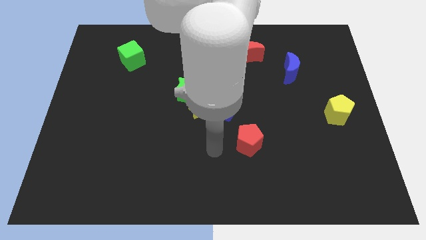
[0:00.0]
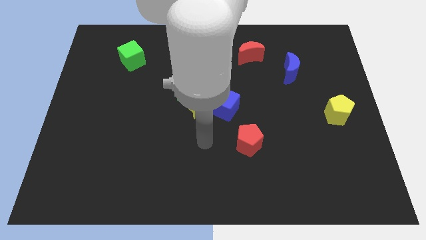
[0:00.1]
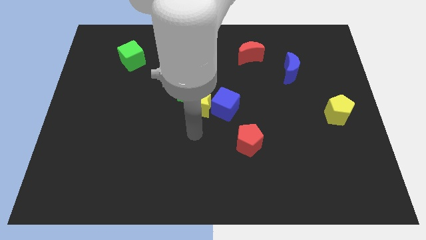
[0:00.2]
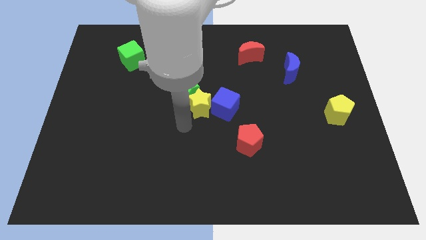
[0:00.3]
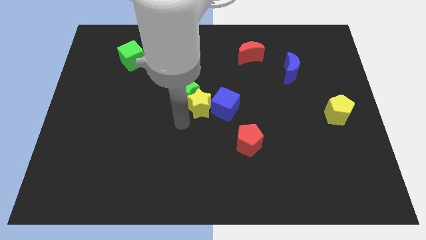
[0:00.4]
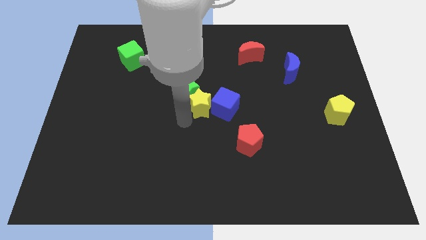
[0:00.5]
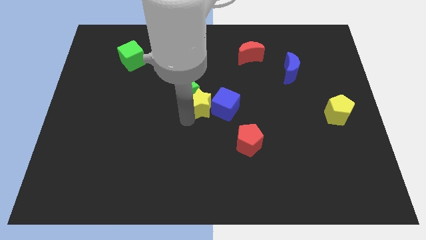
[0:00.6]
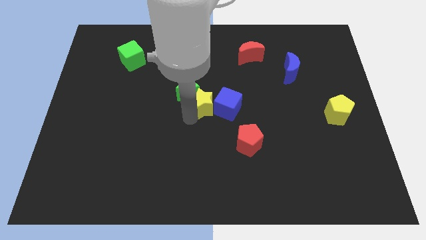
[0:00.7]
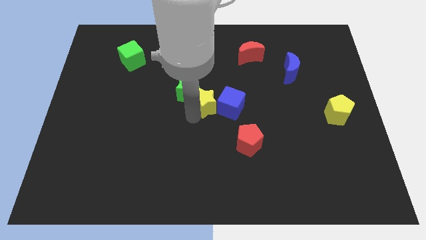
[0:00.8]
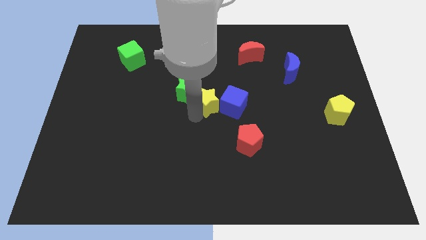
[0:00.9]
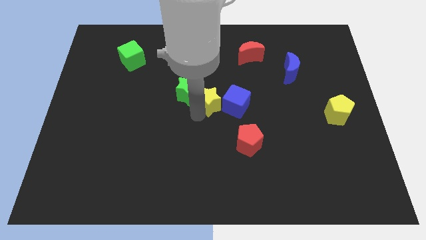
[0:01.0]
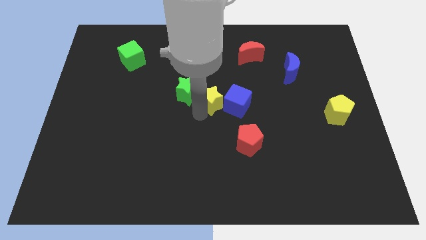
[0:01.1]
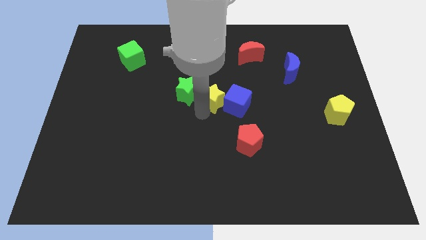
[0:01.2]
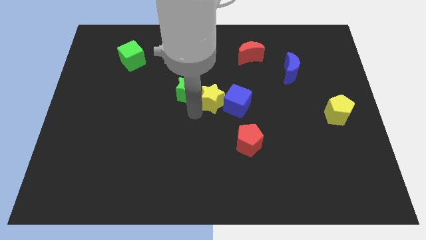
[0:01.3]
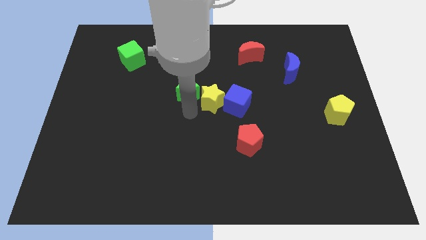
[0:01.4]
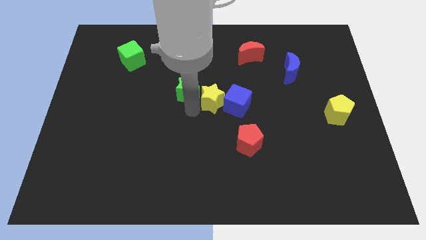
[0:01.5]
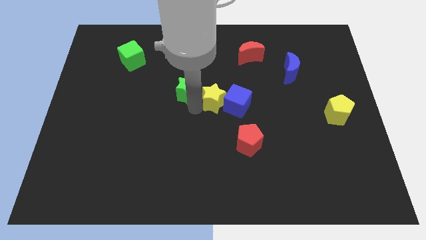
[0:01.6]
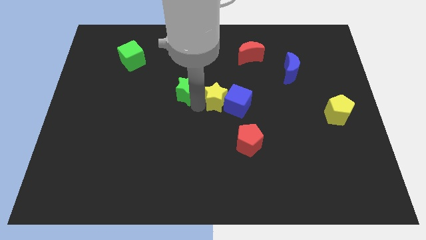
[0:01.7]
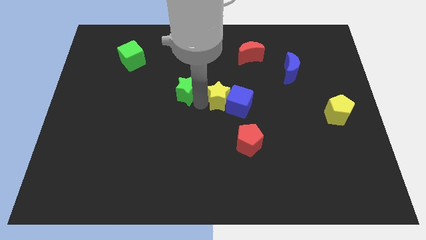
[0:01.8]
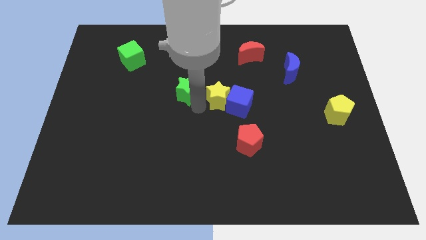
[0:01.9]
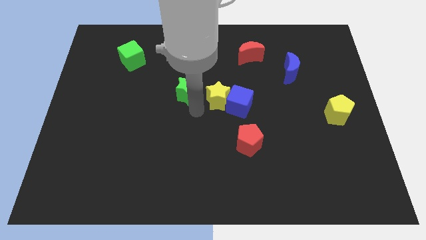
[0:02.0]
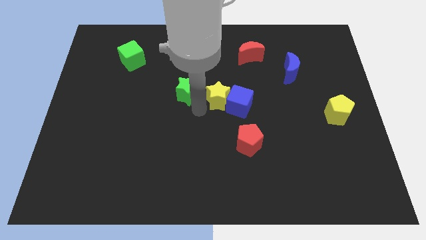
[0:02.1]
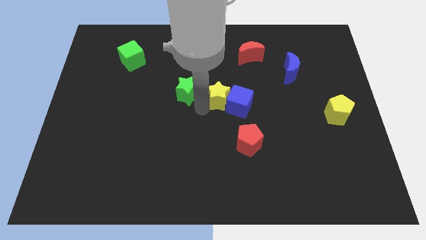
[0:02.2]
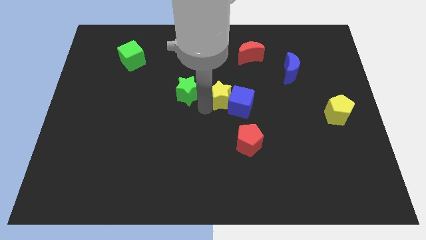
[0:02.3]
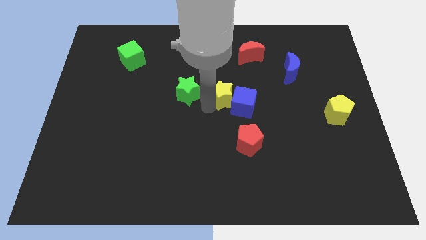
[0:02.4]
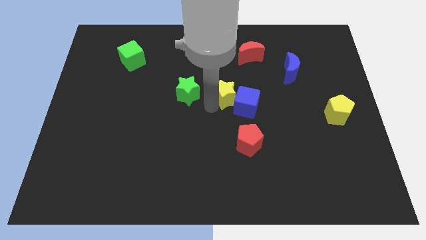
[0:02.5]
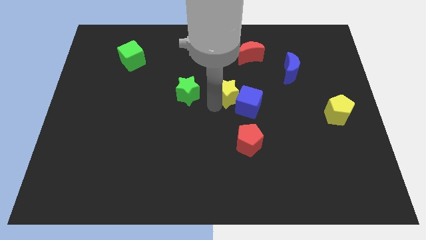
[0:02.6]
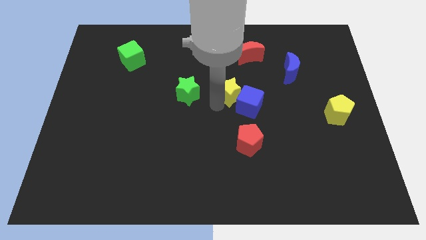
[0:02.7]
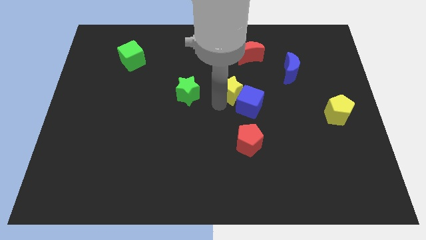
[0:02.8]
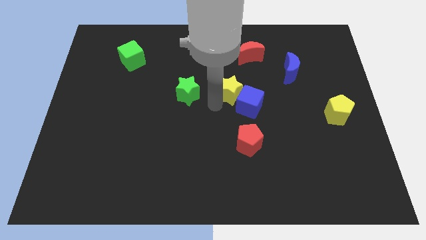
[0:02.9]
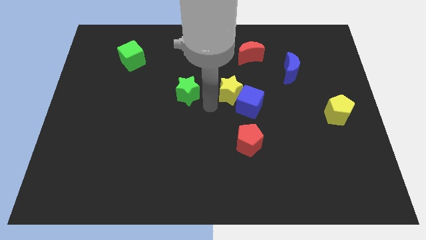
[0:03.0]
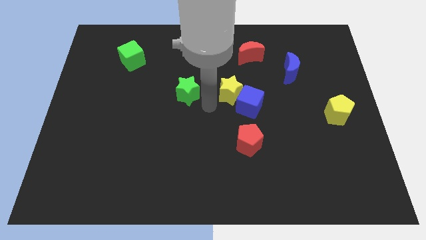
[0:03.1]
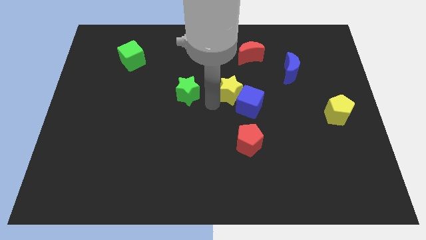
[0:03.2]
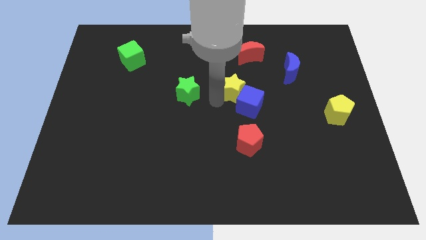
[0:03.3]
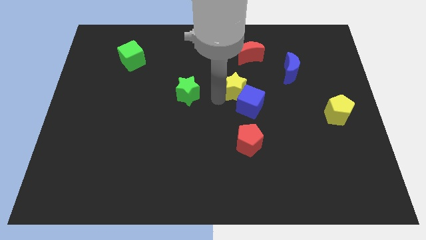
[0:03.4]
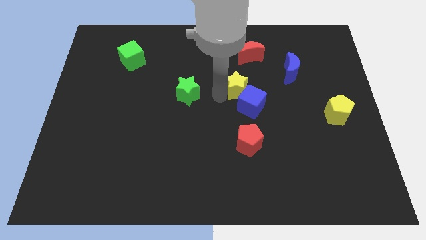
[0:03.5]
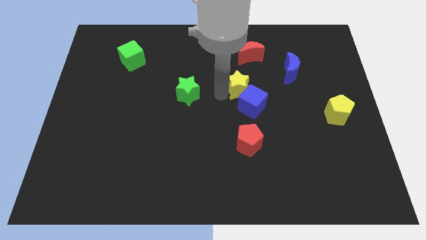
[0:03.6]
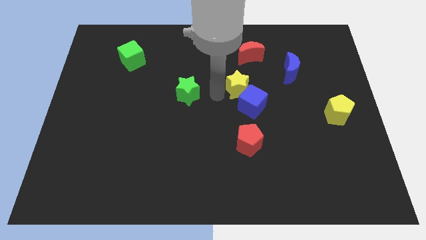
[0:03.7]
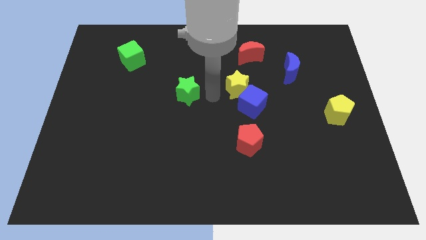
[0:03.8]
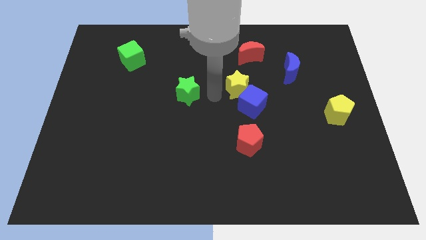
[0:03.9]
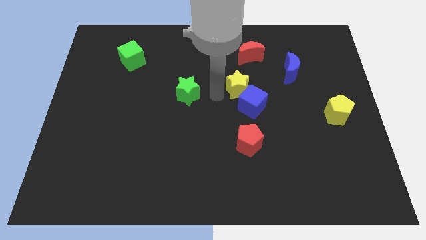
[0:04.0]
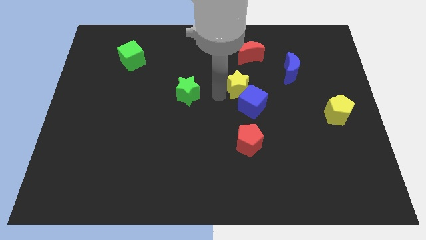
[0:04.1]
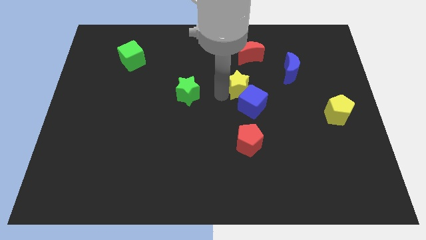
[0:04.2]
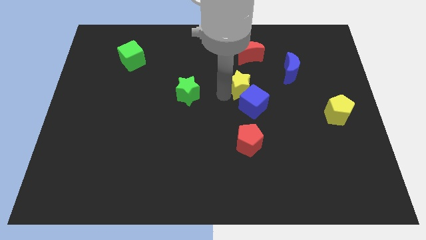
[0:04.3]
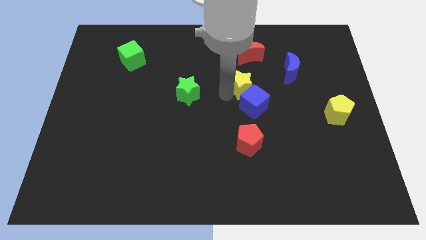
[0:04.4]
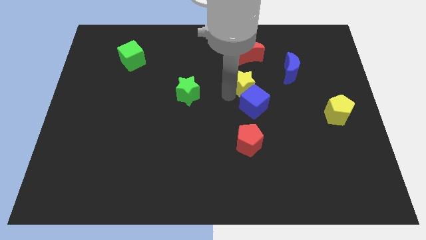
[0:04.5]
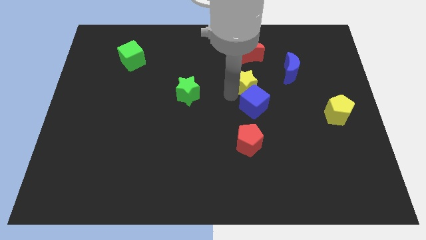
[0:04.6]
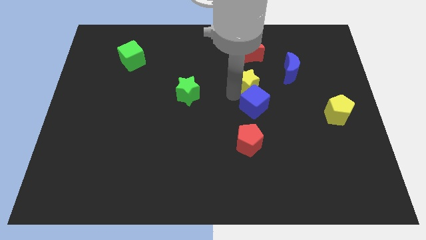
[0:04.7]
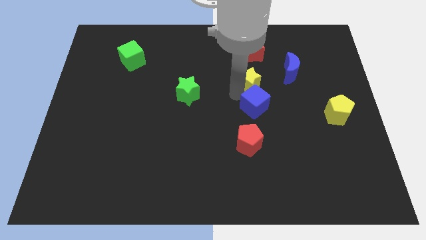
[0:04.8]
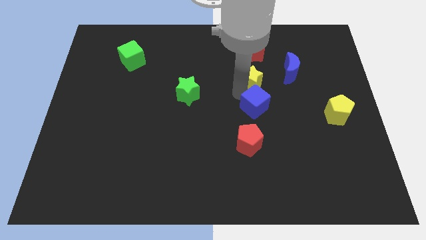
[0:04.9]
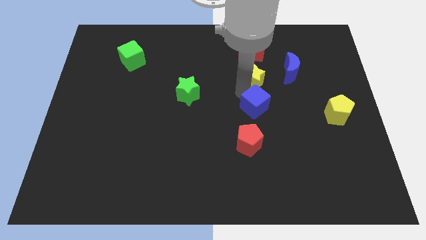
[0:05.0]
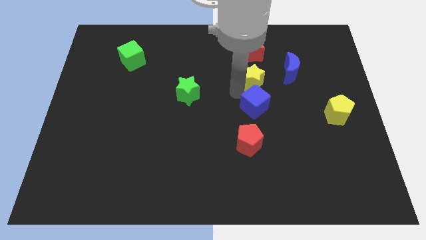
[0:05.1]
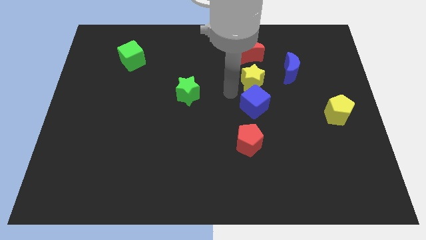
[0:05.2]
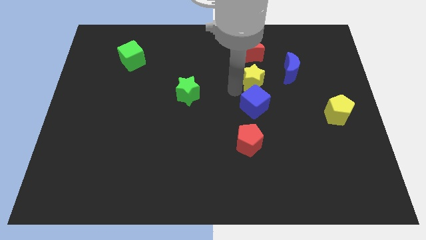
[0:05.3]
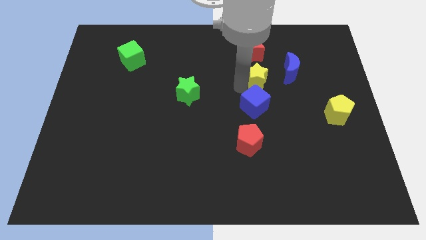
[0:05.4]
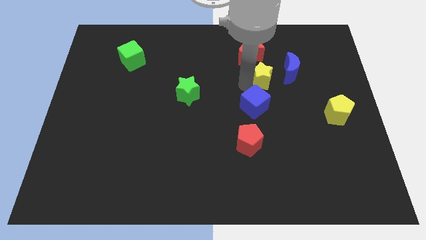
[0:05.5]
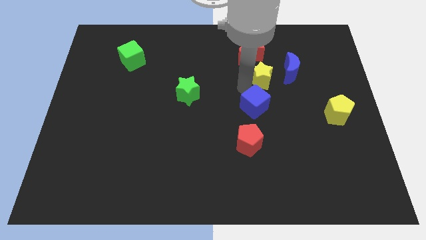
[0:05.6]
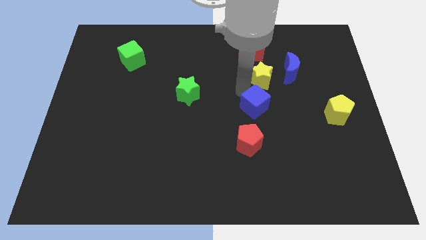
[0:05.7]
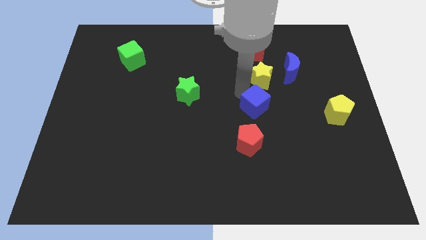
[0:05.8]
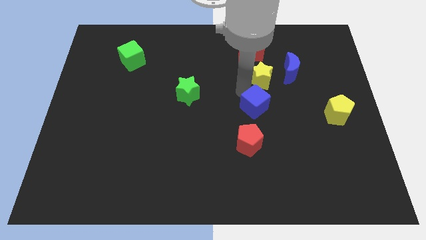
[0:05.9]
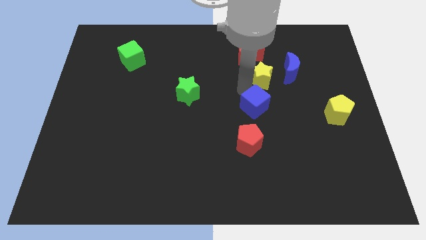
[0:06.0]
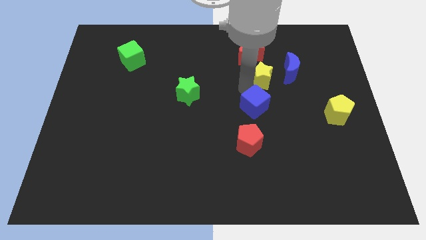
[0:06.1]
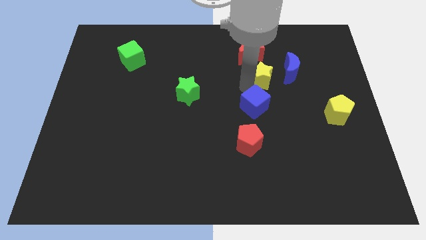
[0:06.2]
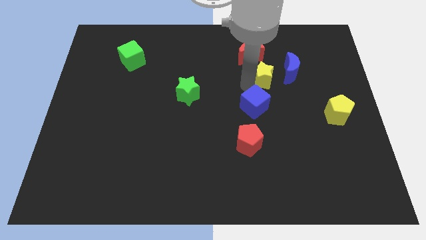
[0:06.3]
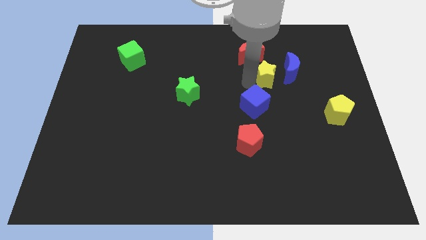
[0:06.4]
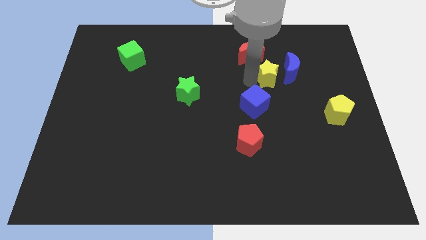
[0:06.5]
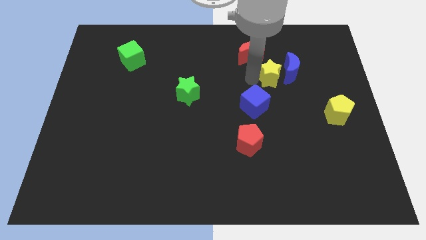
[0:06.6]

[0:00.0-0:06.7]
slide the yellow star next to the blue moon

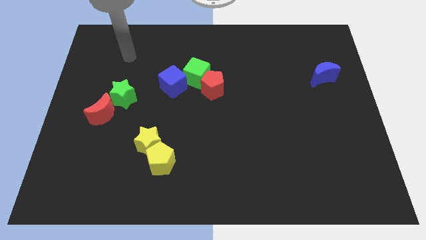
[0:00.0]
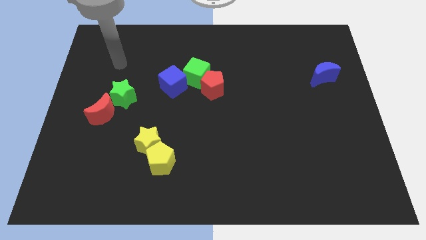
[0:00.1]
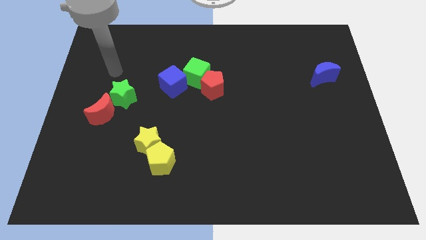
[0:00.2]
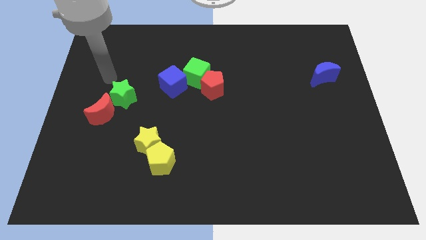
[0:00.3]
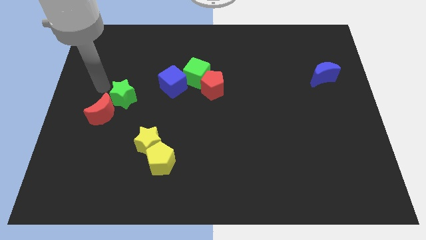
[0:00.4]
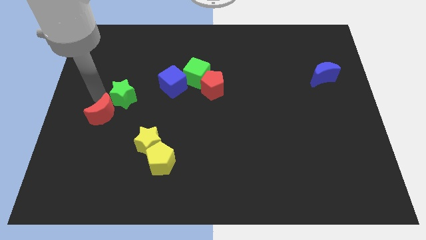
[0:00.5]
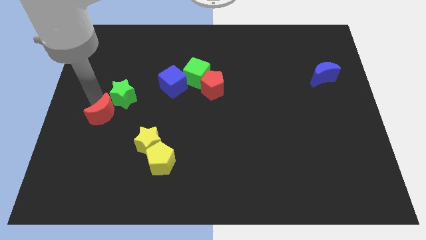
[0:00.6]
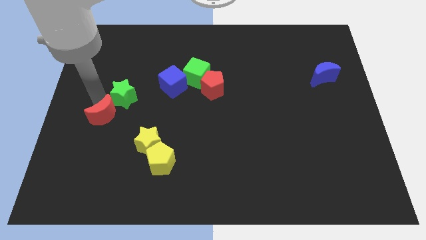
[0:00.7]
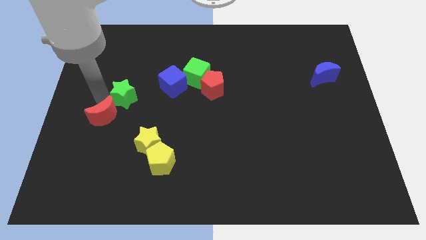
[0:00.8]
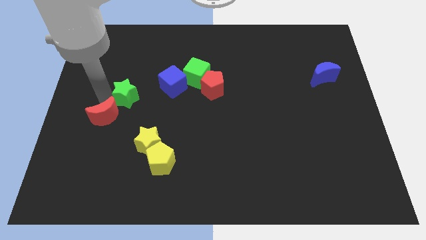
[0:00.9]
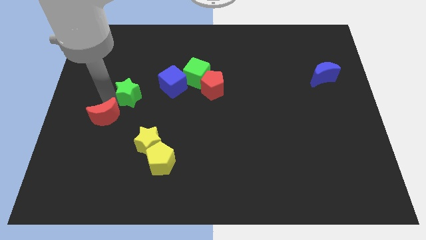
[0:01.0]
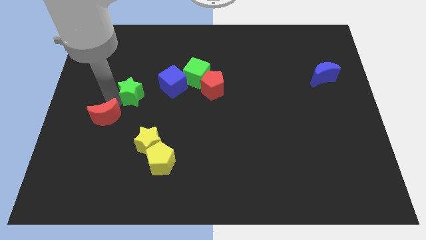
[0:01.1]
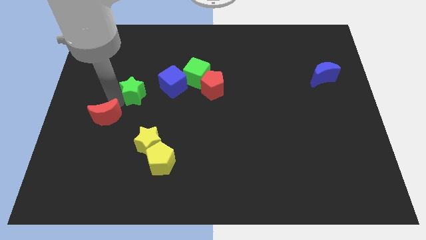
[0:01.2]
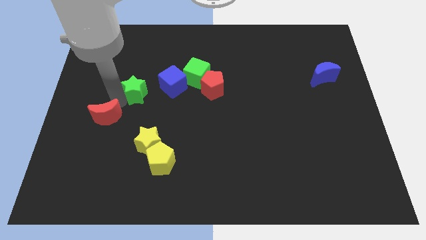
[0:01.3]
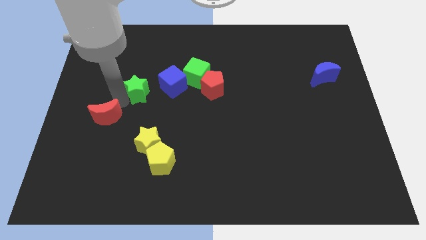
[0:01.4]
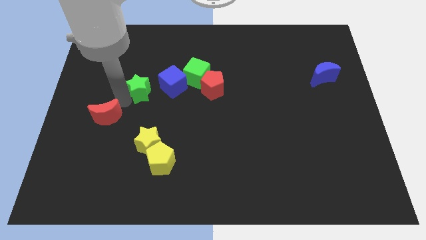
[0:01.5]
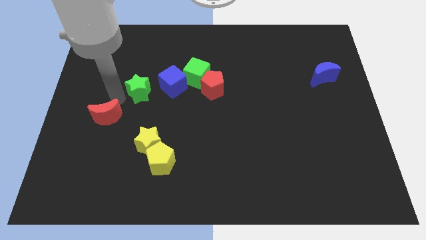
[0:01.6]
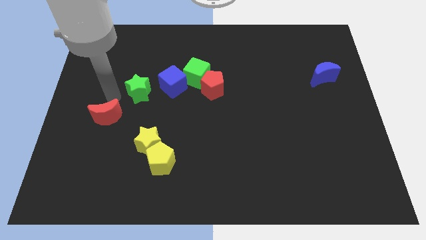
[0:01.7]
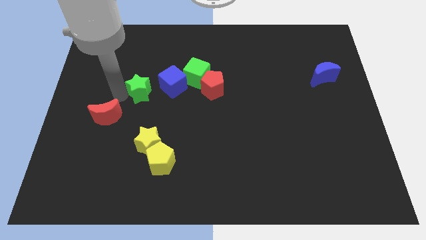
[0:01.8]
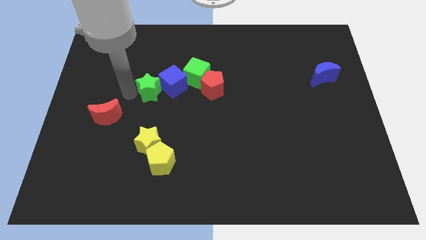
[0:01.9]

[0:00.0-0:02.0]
put the green star close to the blue cube
